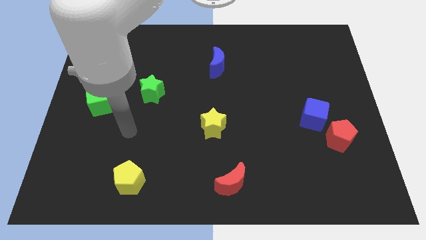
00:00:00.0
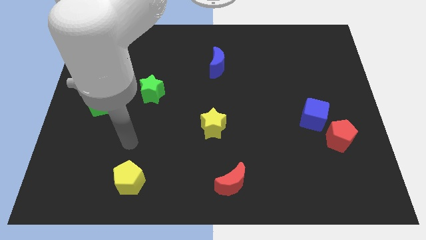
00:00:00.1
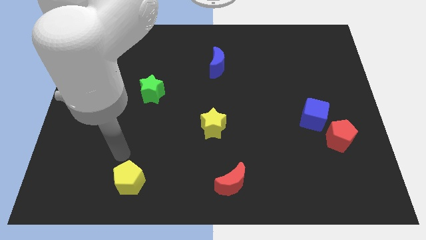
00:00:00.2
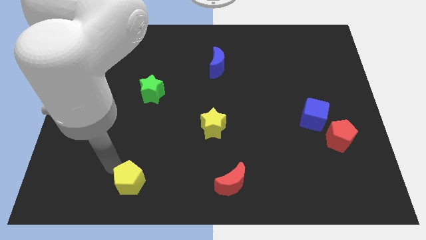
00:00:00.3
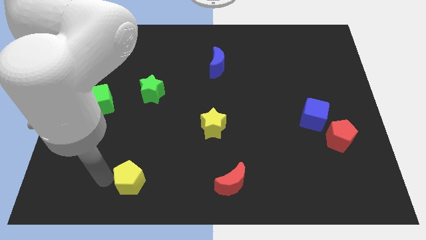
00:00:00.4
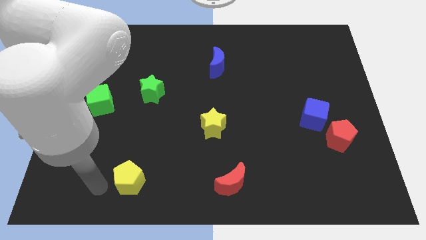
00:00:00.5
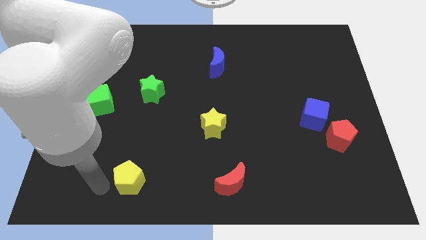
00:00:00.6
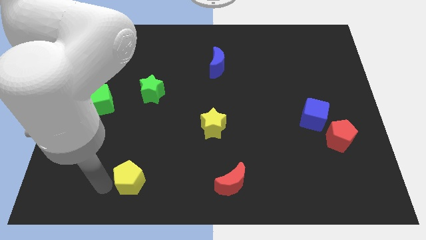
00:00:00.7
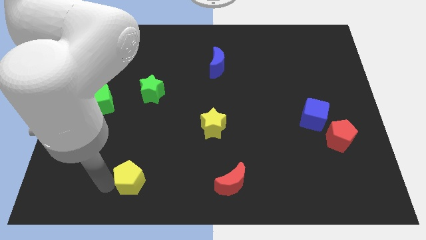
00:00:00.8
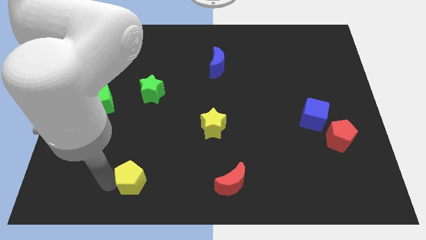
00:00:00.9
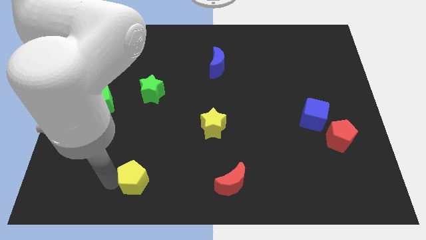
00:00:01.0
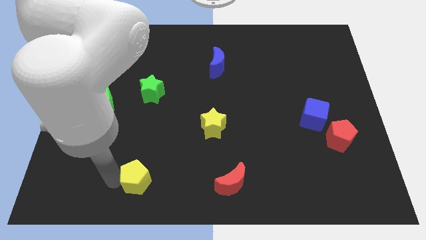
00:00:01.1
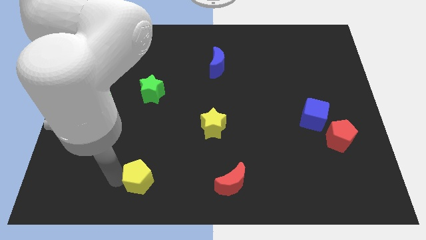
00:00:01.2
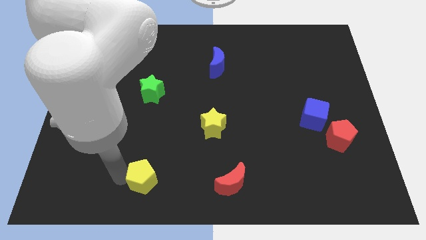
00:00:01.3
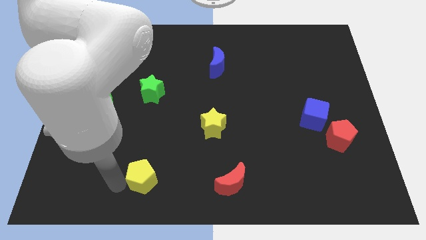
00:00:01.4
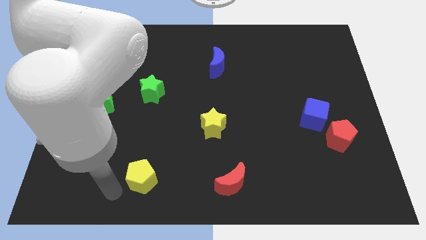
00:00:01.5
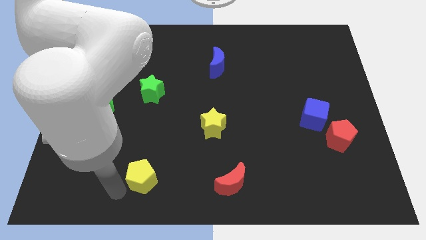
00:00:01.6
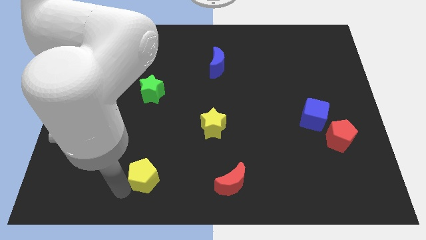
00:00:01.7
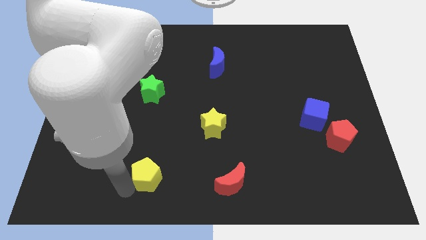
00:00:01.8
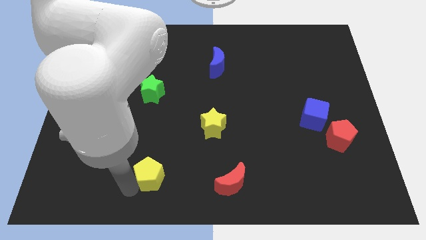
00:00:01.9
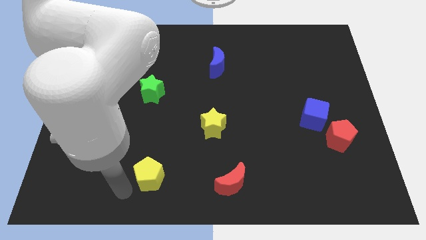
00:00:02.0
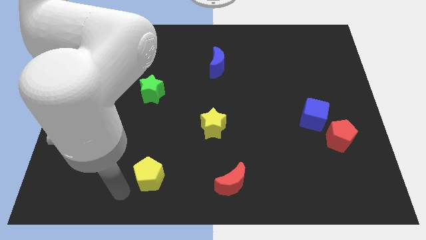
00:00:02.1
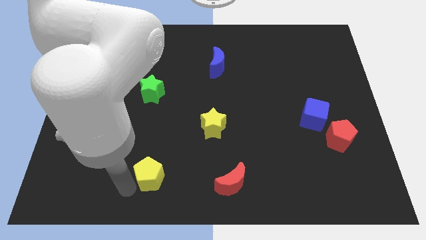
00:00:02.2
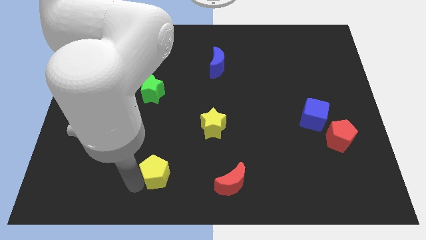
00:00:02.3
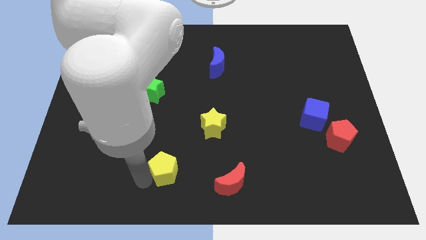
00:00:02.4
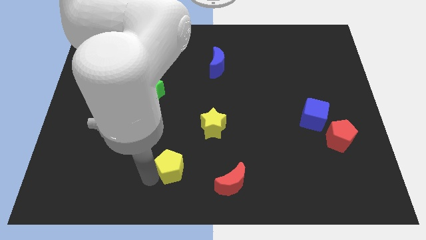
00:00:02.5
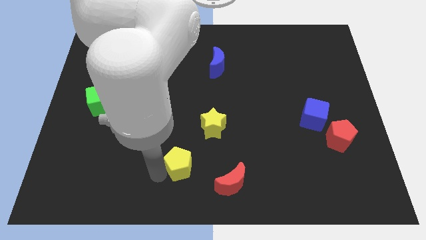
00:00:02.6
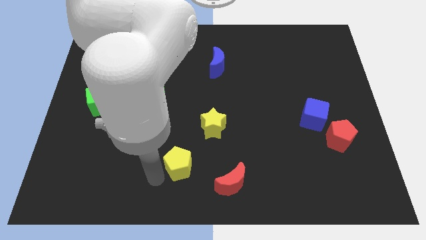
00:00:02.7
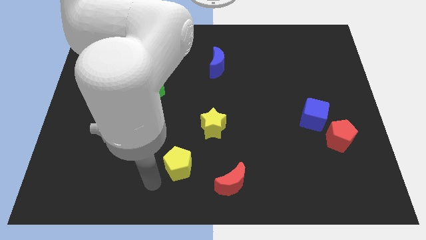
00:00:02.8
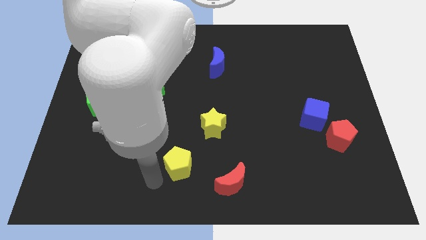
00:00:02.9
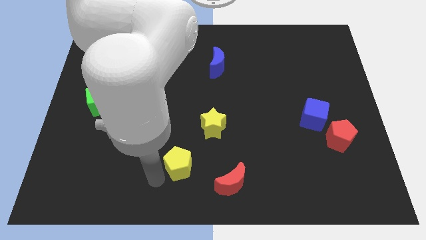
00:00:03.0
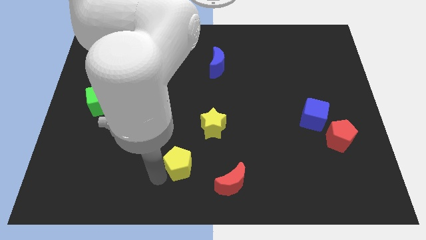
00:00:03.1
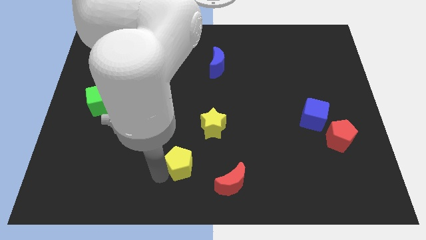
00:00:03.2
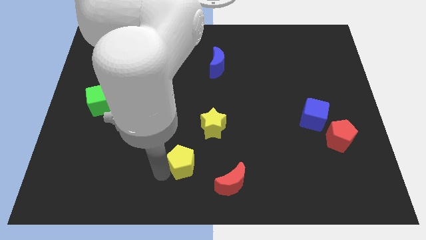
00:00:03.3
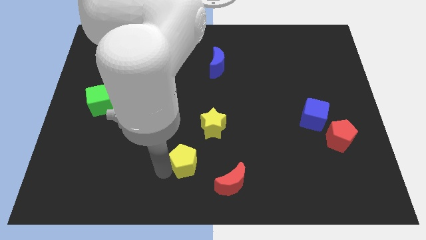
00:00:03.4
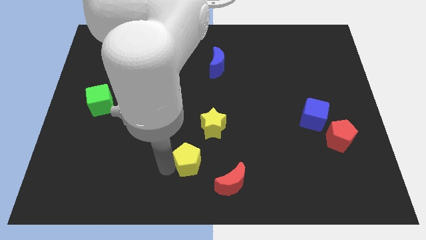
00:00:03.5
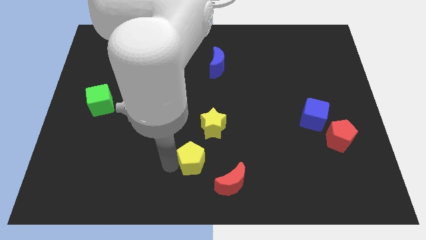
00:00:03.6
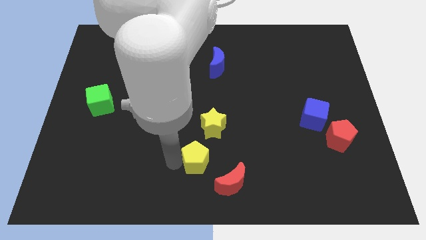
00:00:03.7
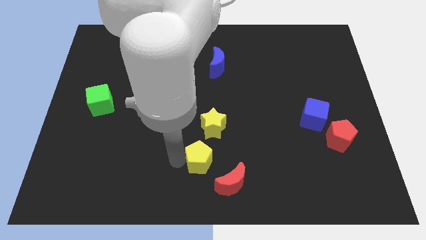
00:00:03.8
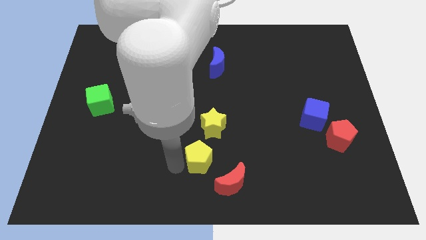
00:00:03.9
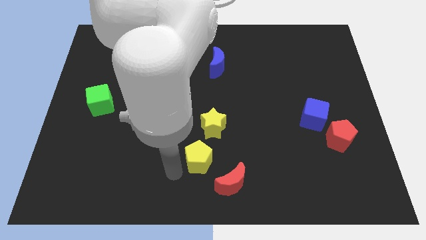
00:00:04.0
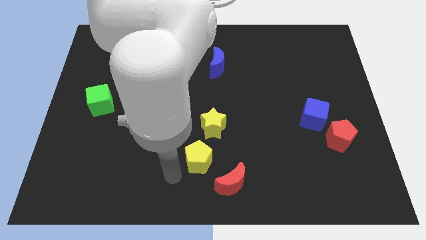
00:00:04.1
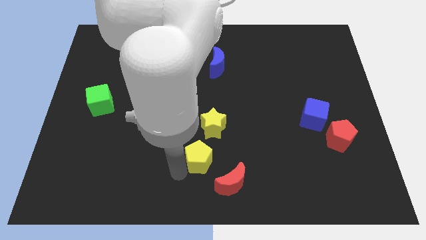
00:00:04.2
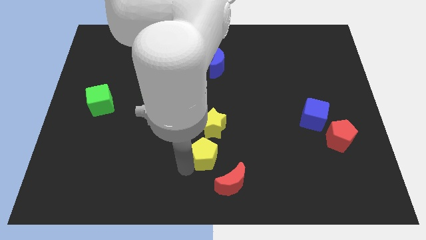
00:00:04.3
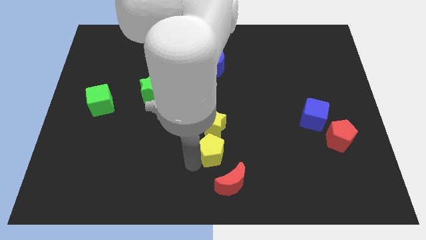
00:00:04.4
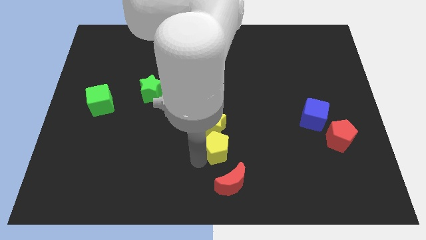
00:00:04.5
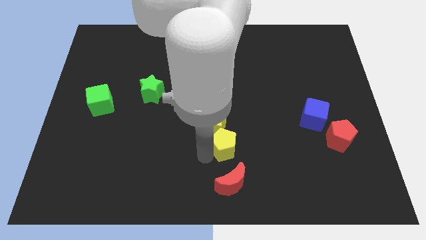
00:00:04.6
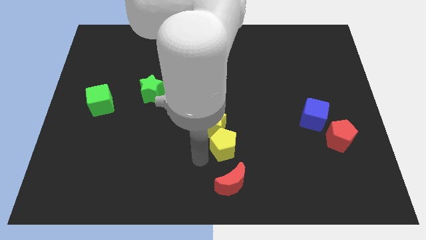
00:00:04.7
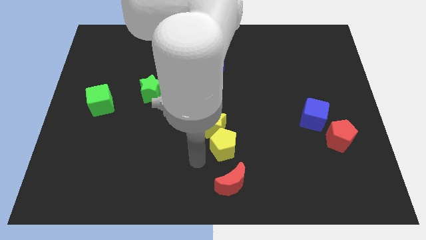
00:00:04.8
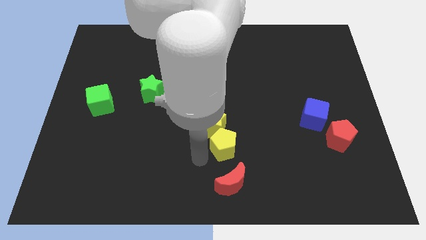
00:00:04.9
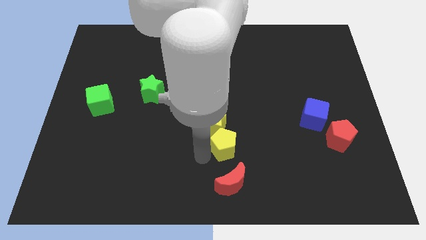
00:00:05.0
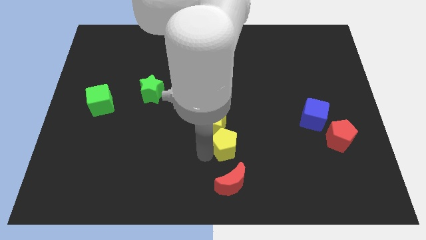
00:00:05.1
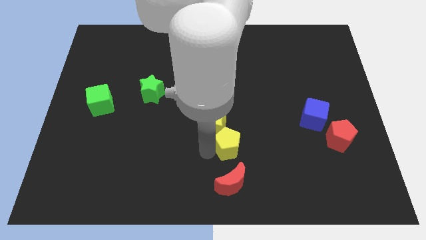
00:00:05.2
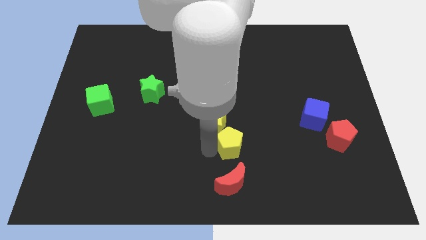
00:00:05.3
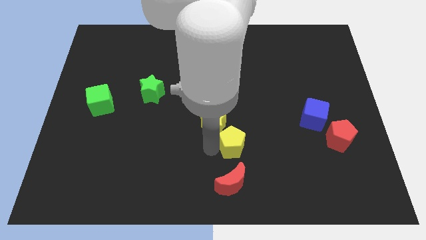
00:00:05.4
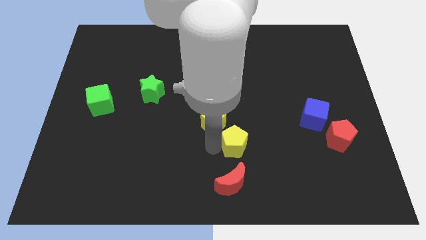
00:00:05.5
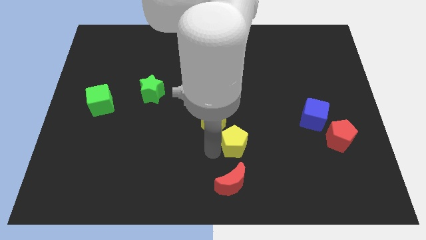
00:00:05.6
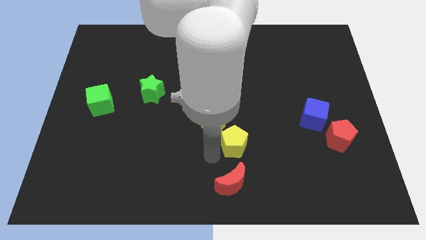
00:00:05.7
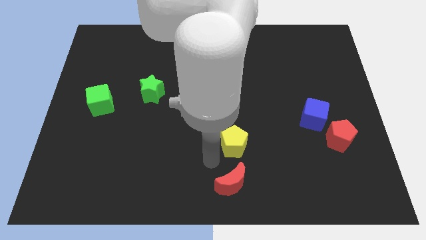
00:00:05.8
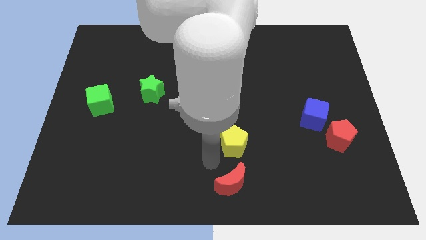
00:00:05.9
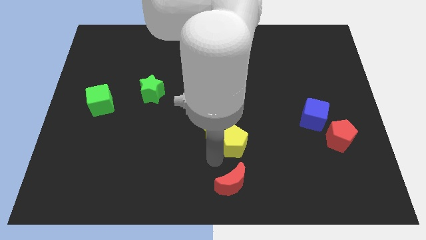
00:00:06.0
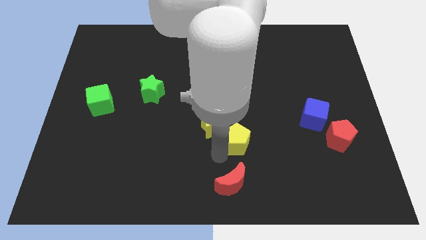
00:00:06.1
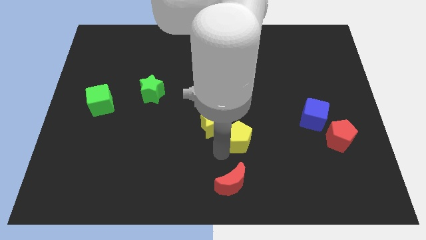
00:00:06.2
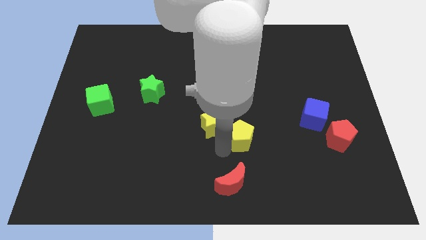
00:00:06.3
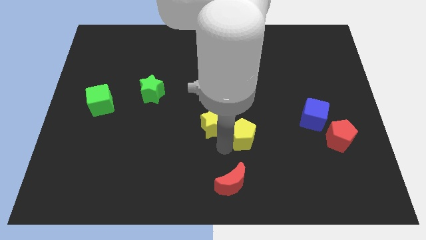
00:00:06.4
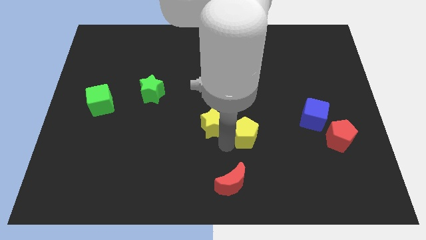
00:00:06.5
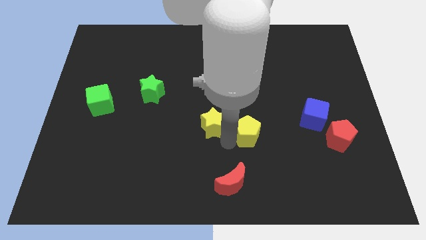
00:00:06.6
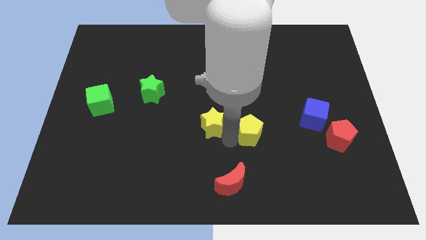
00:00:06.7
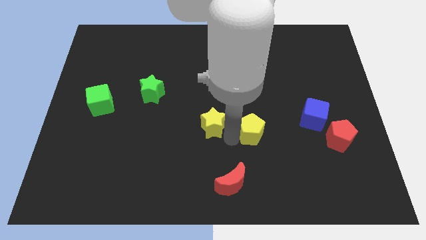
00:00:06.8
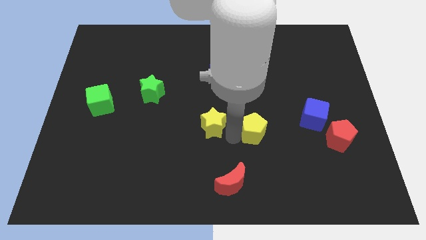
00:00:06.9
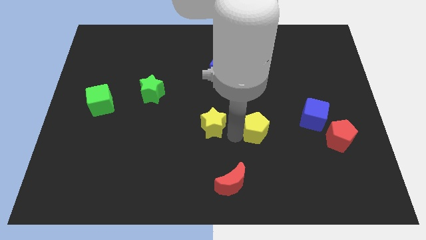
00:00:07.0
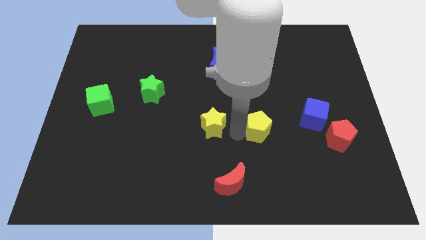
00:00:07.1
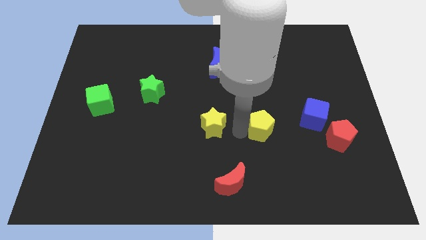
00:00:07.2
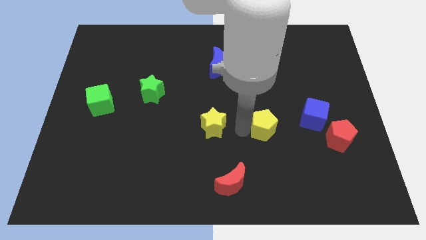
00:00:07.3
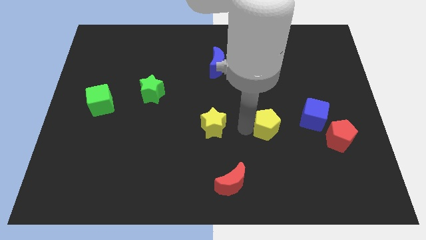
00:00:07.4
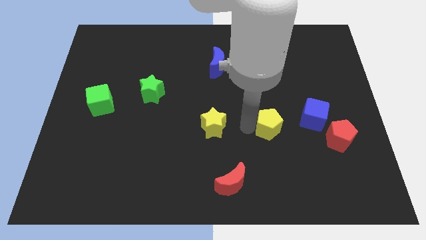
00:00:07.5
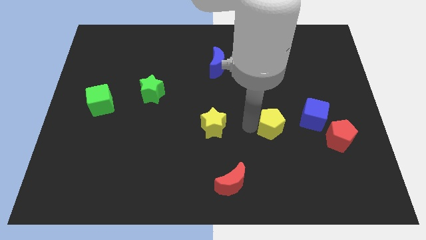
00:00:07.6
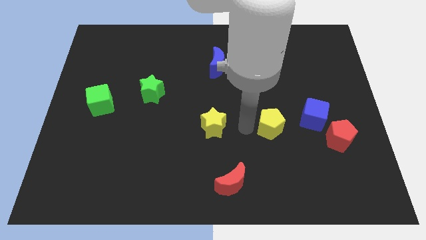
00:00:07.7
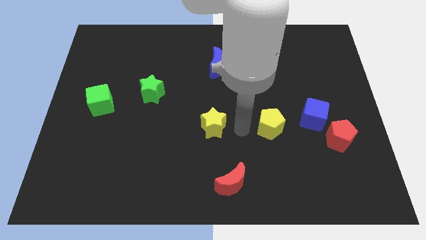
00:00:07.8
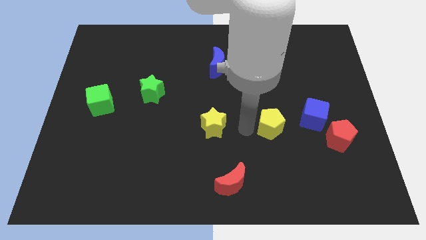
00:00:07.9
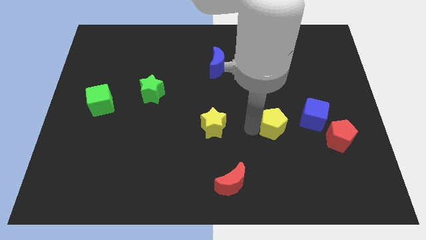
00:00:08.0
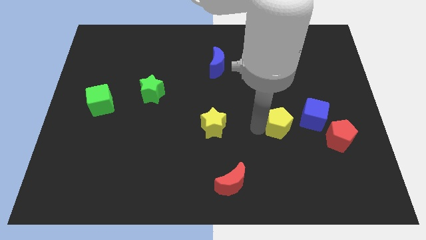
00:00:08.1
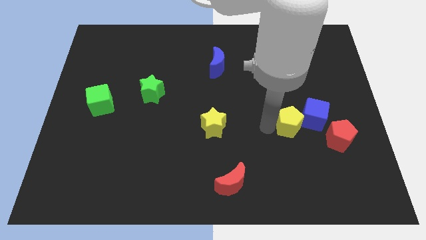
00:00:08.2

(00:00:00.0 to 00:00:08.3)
move the yellow pentagon to the blue cube
